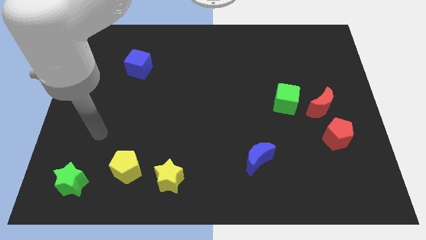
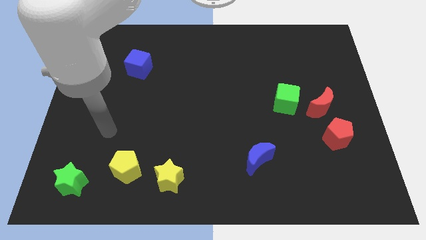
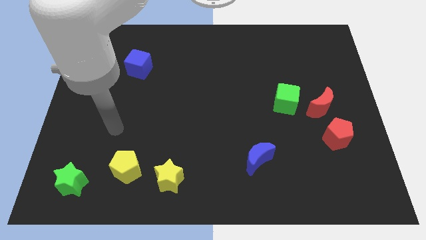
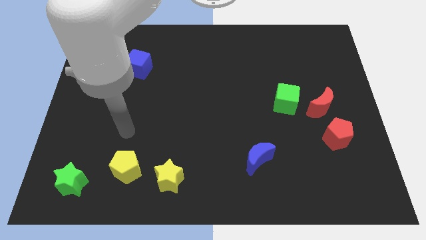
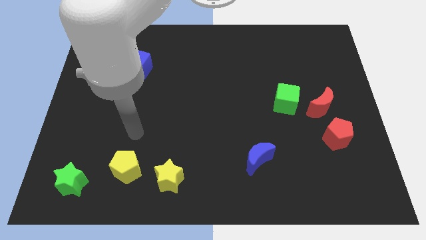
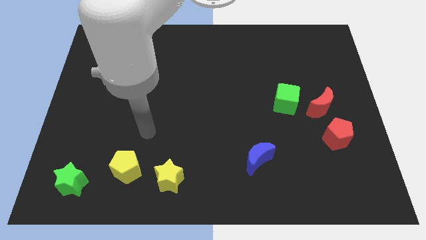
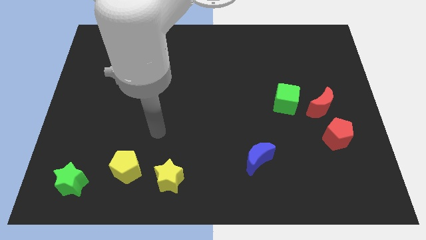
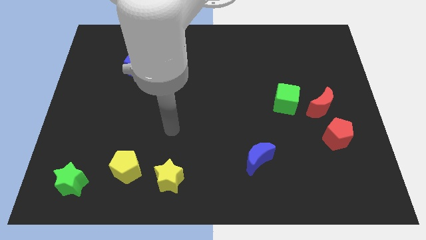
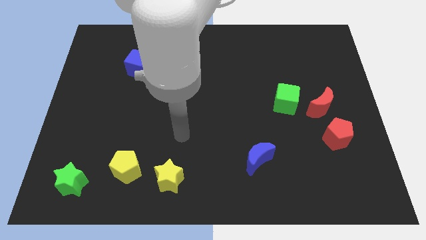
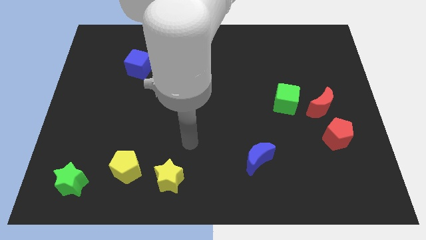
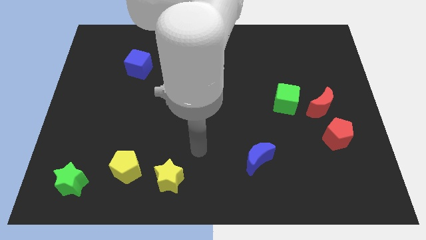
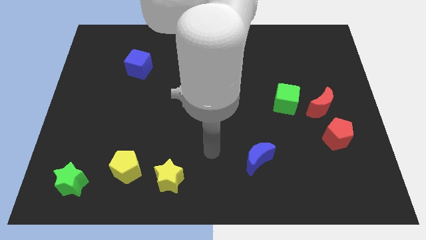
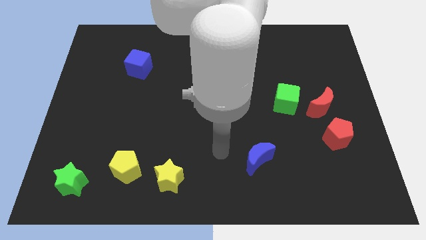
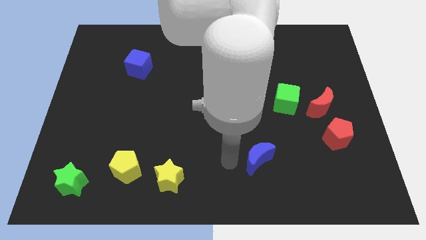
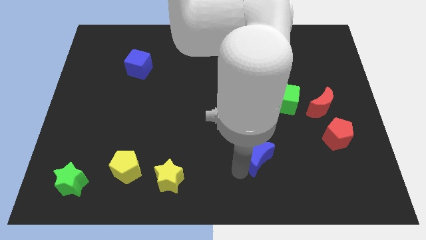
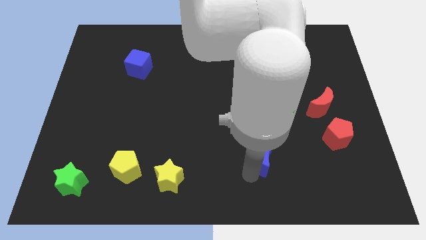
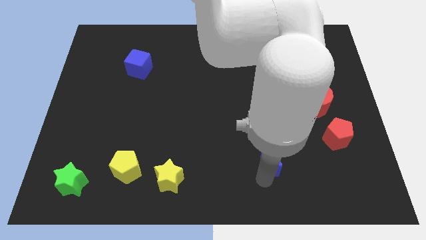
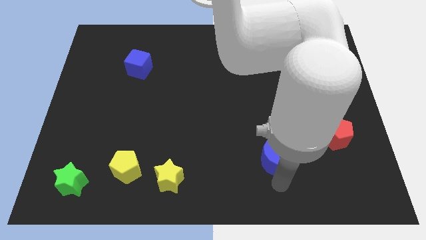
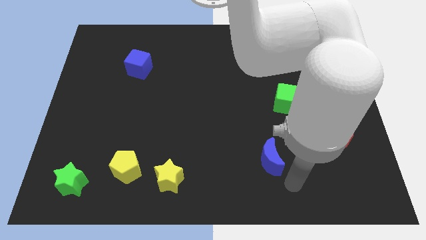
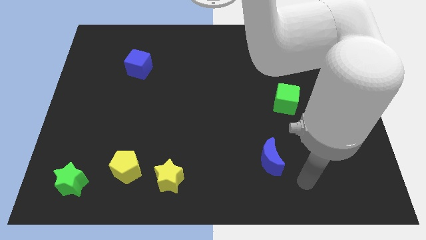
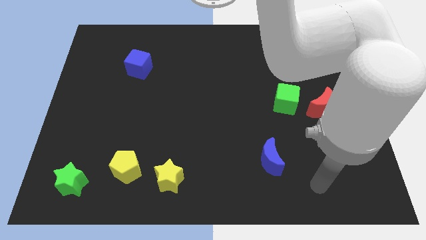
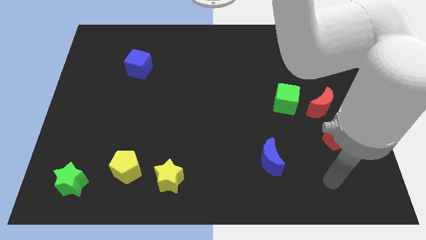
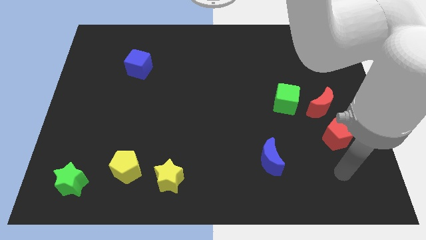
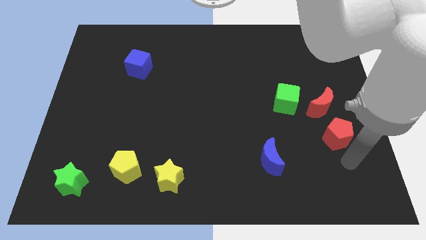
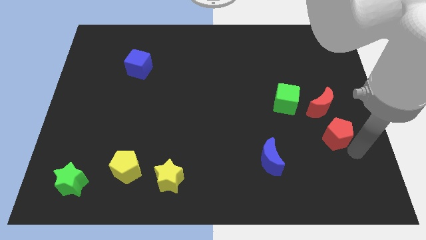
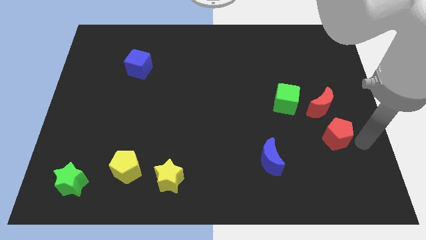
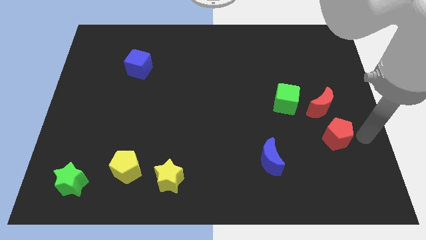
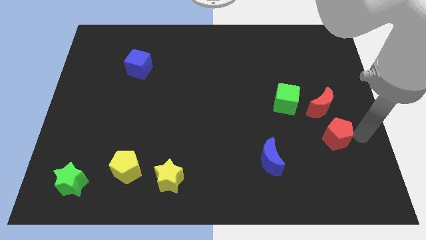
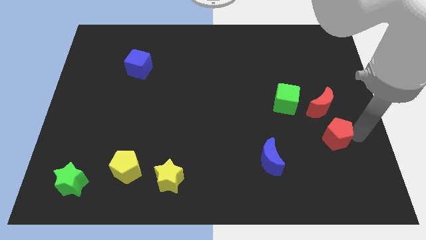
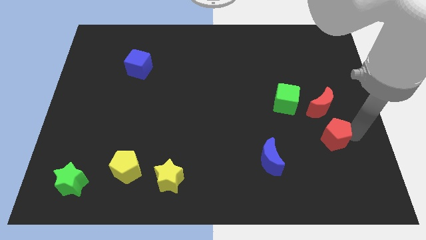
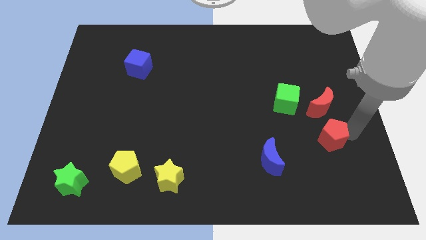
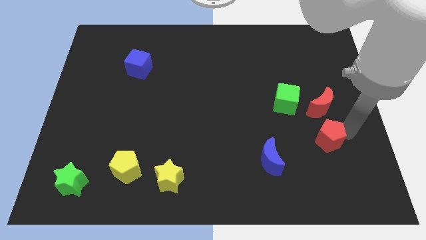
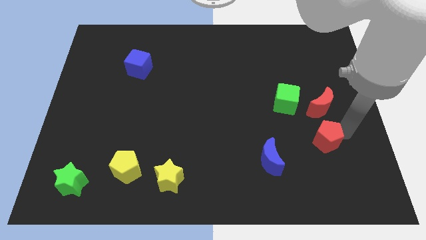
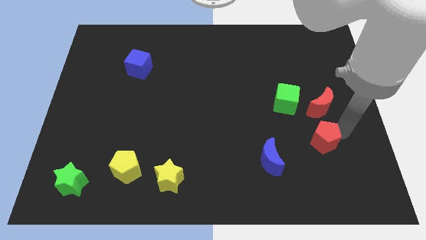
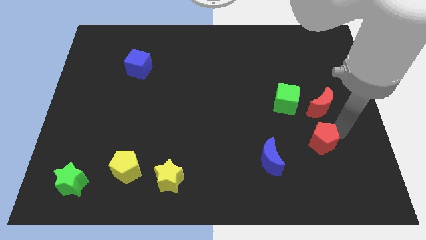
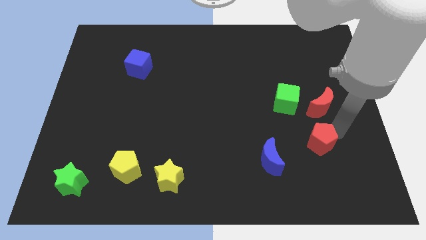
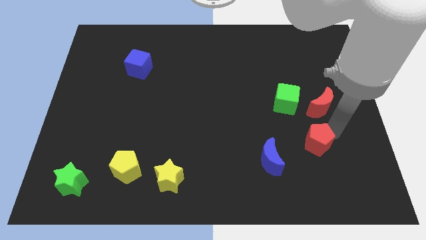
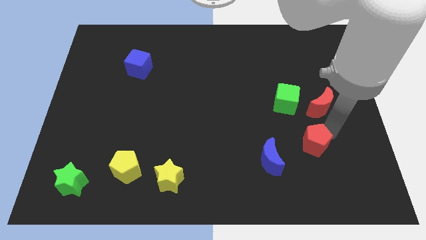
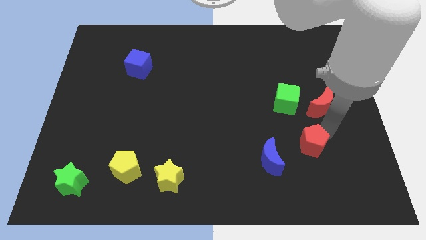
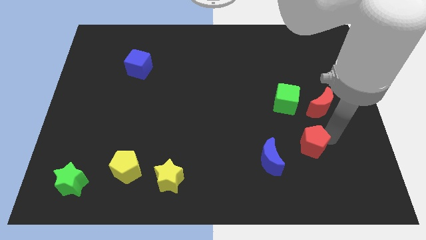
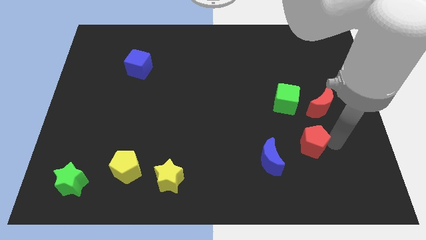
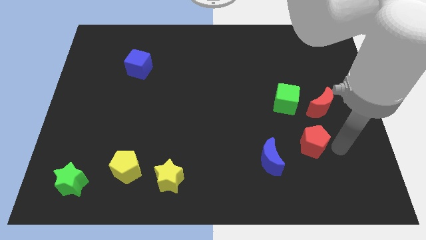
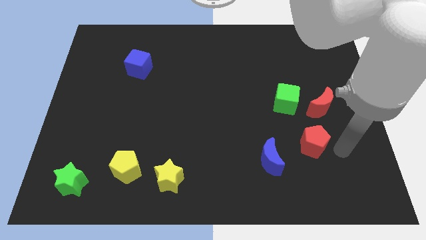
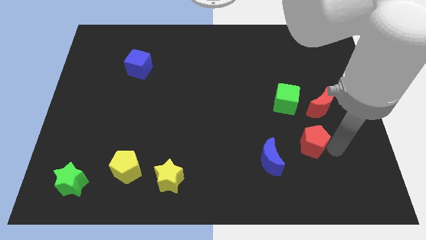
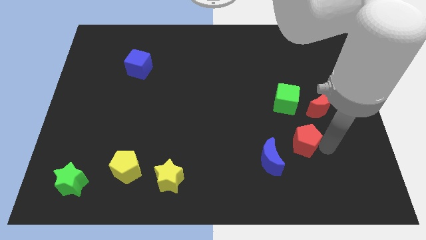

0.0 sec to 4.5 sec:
slightly slide the red pentagon to the left

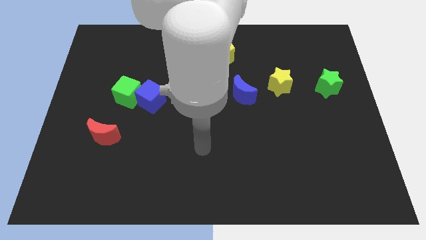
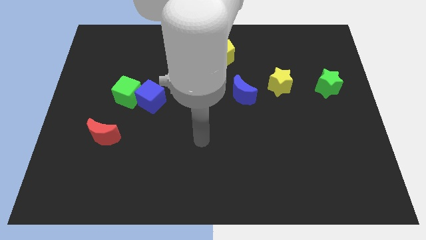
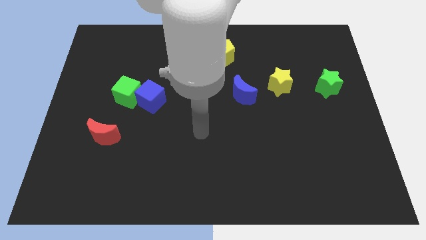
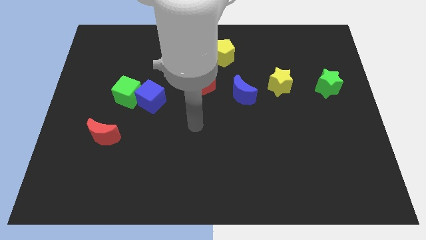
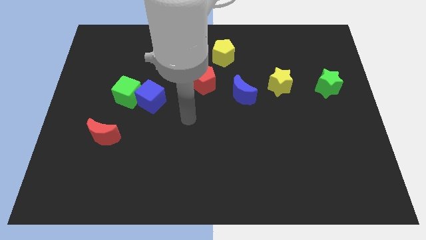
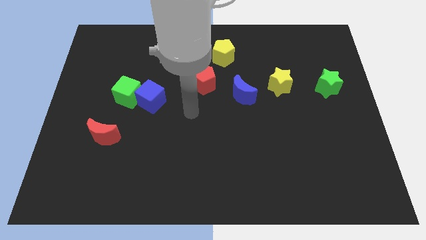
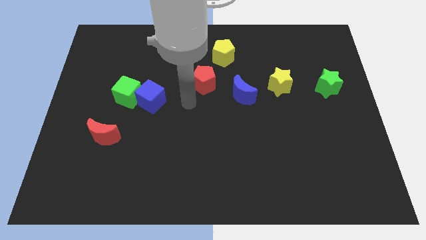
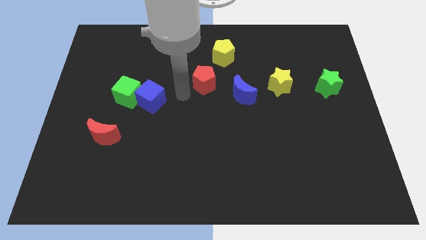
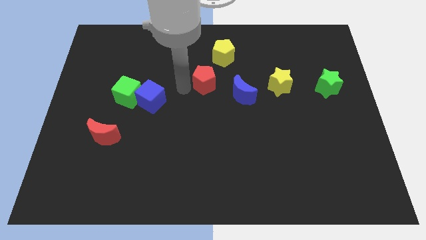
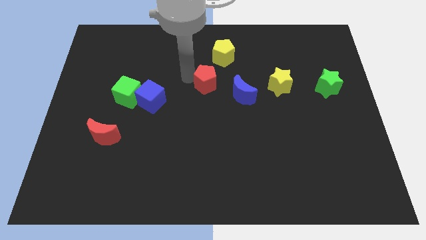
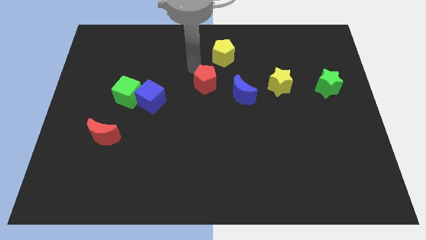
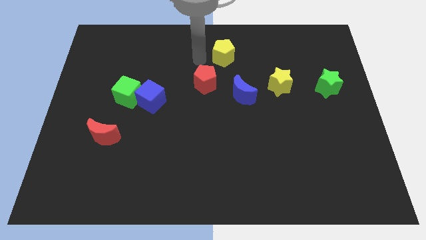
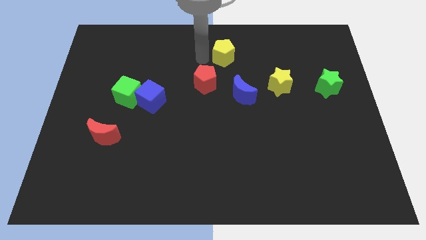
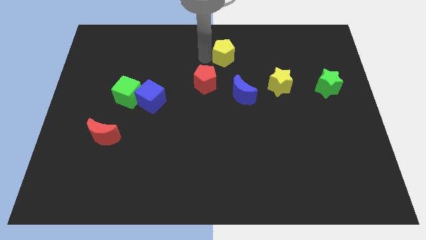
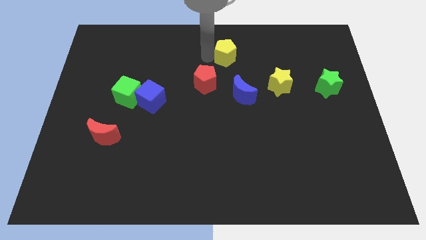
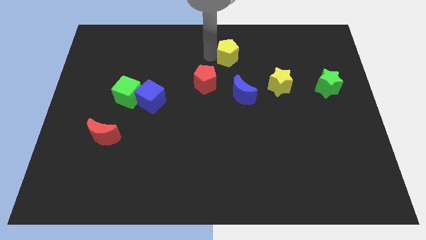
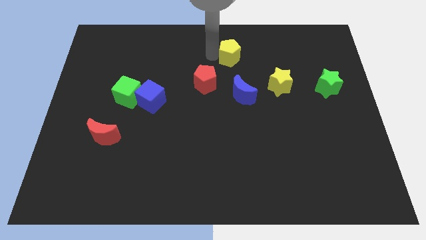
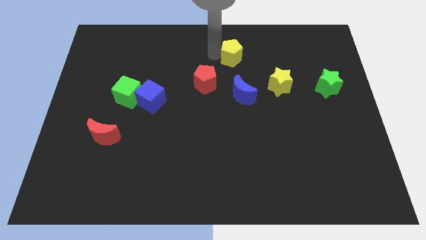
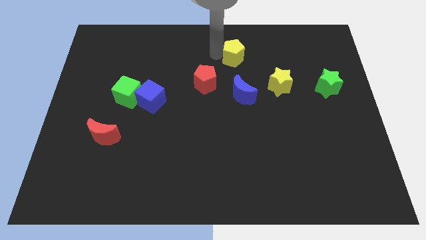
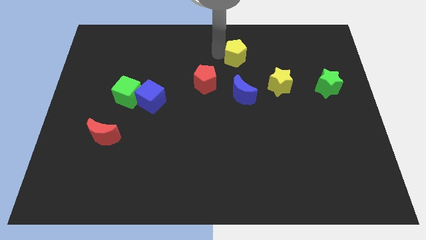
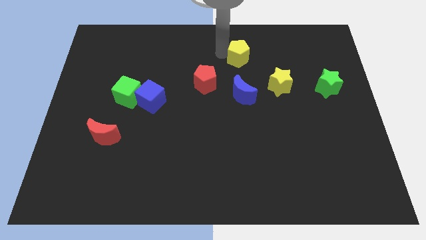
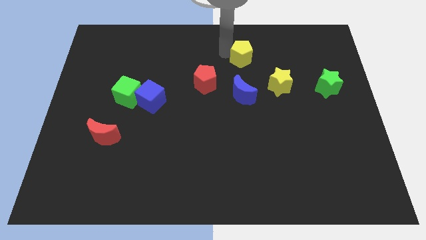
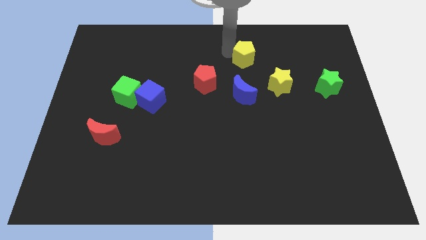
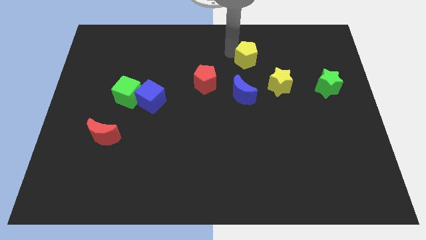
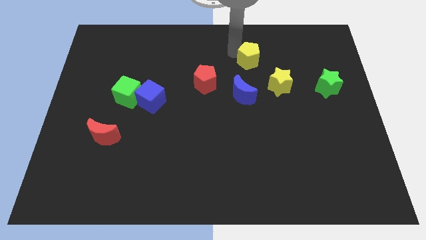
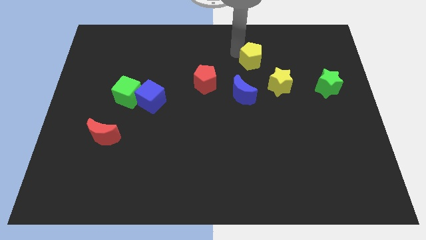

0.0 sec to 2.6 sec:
slightly push the yellow pentagon right

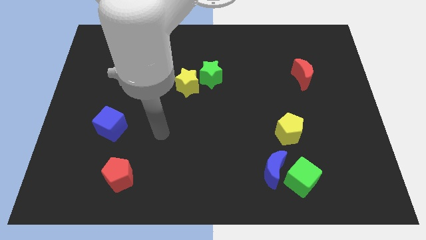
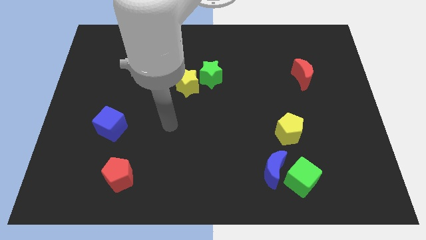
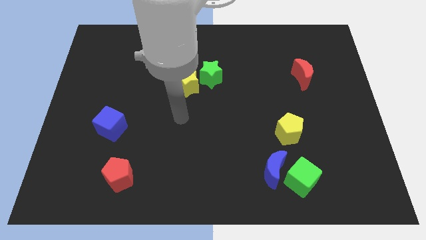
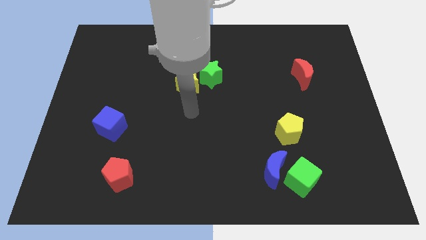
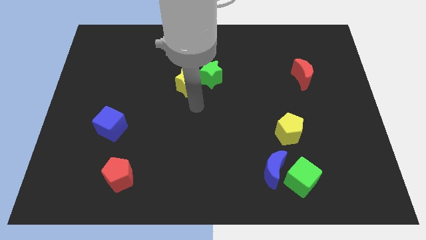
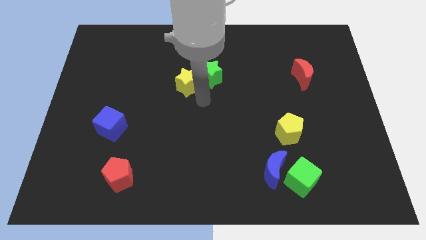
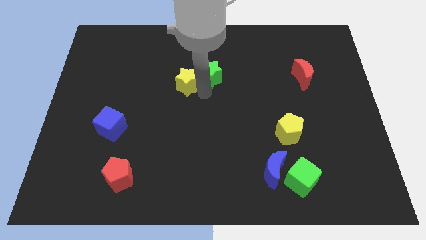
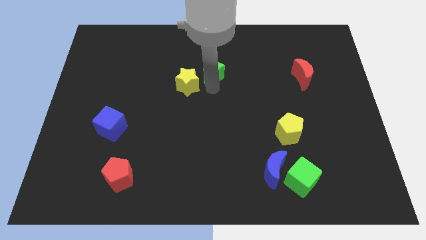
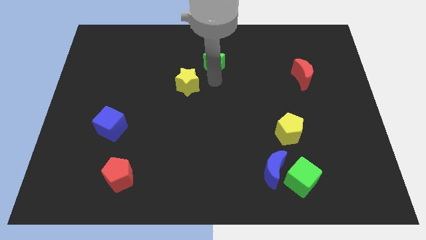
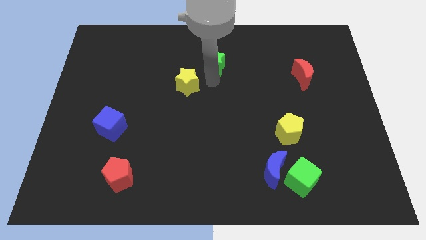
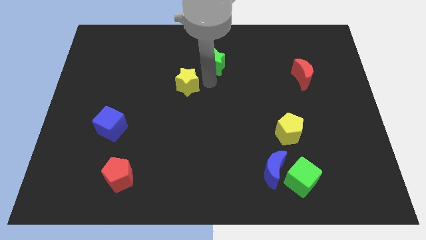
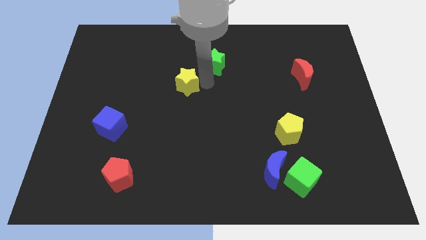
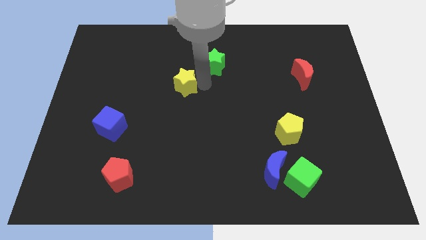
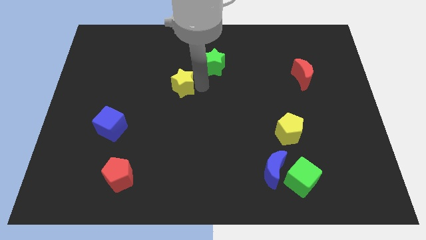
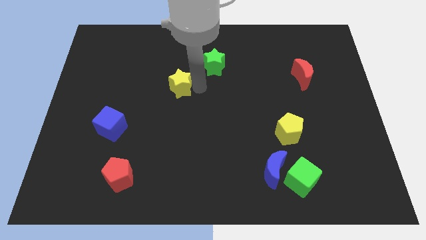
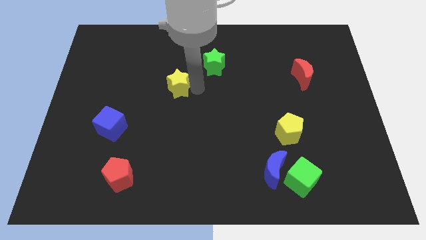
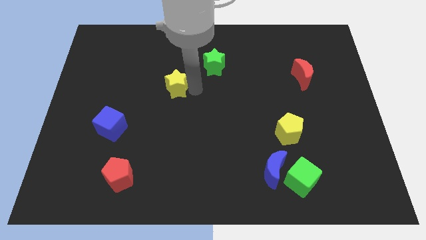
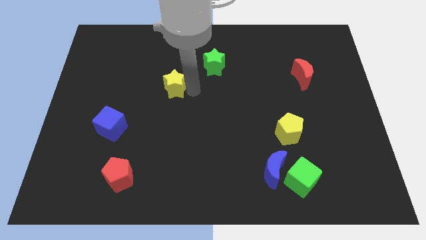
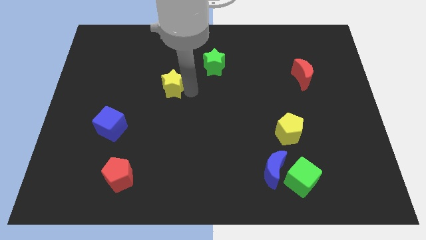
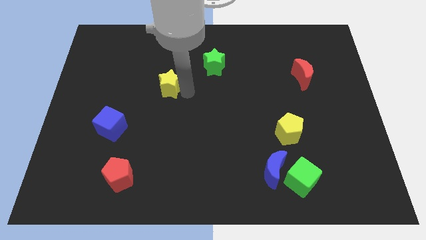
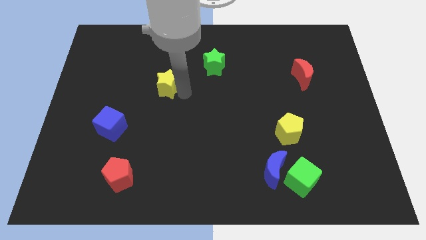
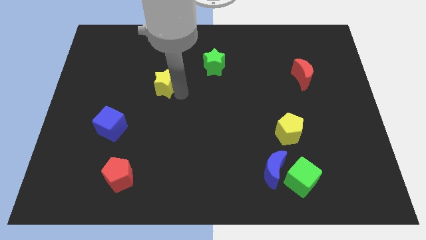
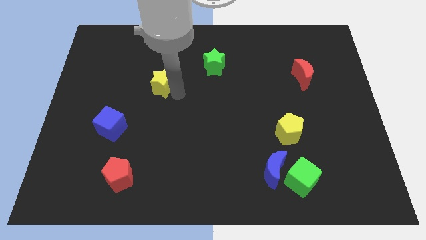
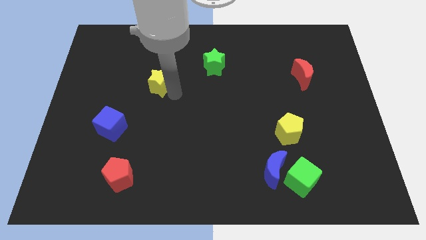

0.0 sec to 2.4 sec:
push the yellow star to the left slightly
